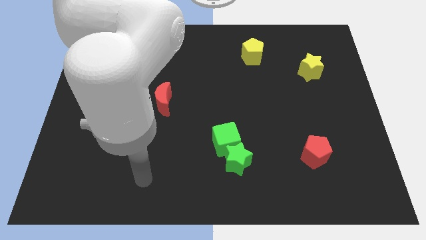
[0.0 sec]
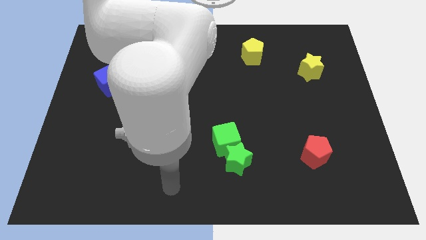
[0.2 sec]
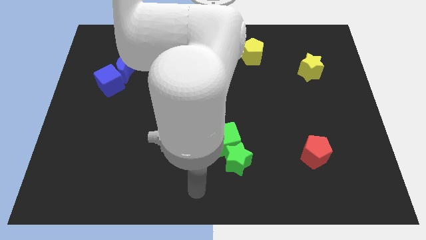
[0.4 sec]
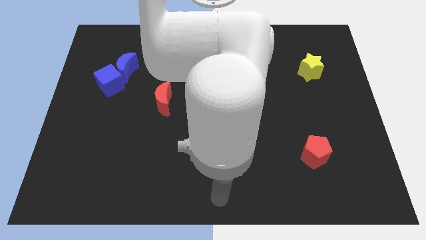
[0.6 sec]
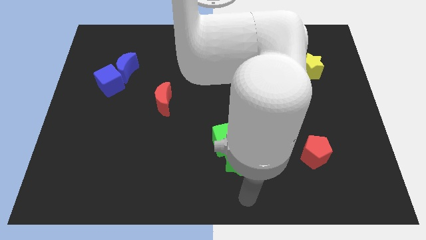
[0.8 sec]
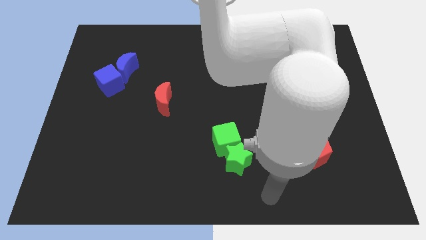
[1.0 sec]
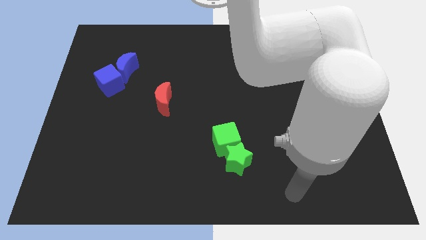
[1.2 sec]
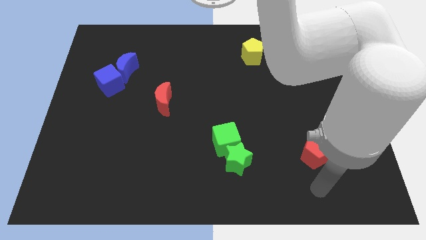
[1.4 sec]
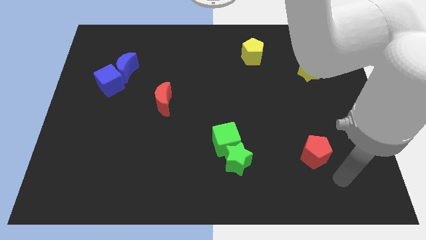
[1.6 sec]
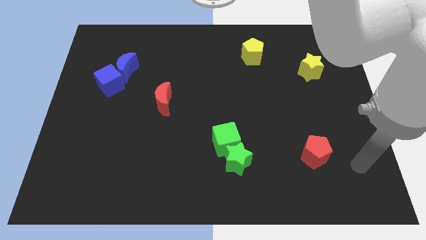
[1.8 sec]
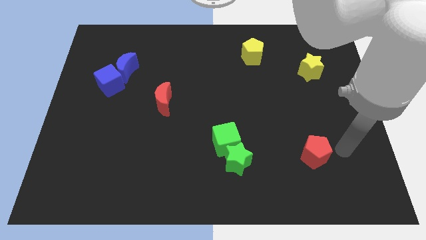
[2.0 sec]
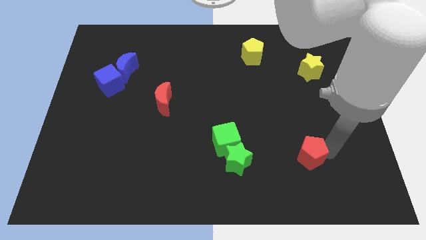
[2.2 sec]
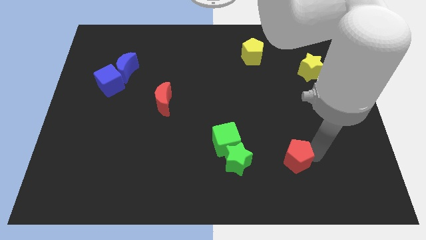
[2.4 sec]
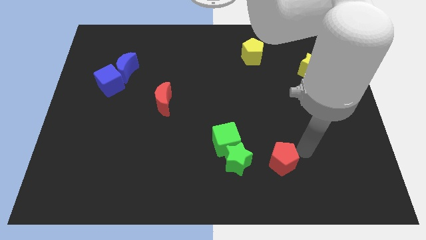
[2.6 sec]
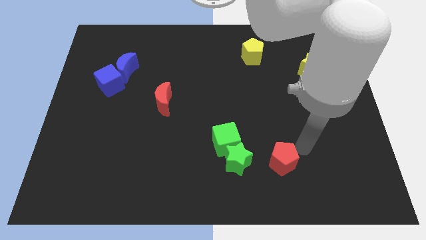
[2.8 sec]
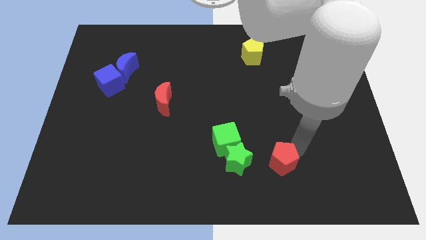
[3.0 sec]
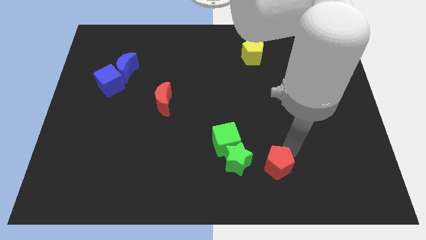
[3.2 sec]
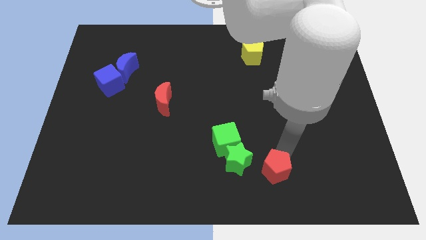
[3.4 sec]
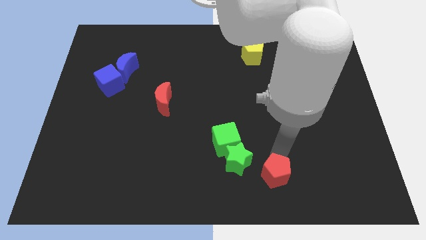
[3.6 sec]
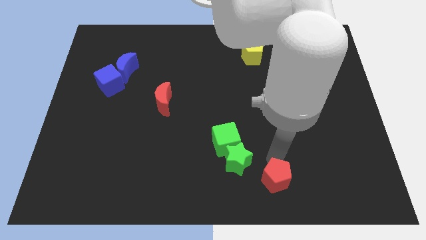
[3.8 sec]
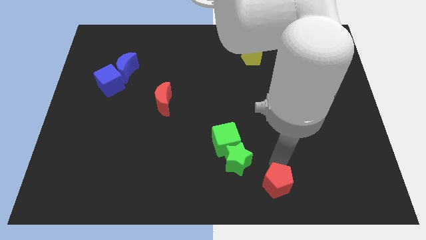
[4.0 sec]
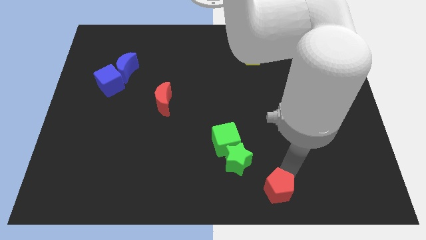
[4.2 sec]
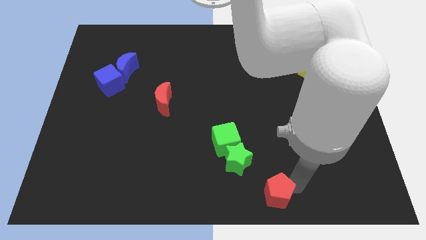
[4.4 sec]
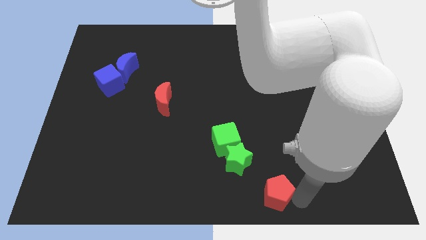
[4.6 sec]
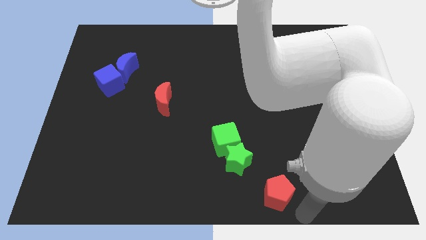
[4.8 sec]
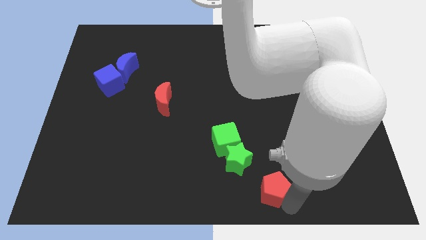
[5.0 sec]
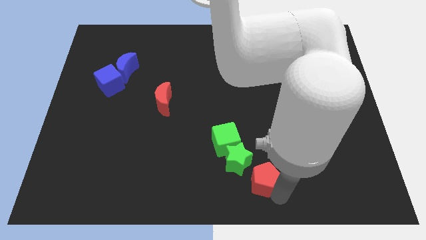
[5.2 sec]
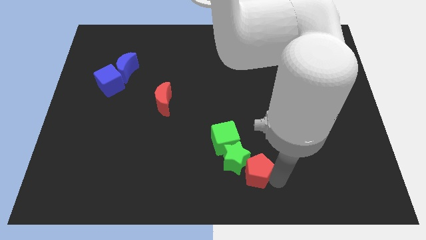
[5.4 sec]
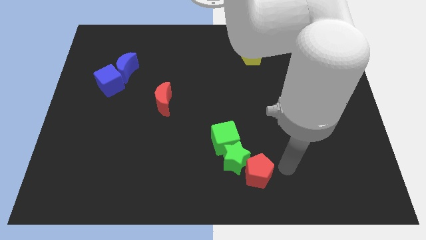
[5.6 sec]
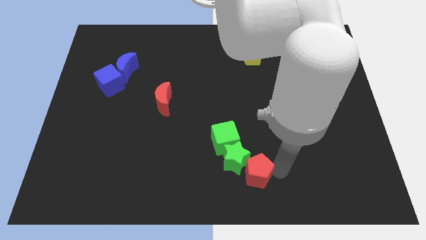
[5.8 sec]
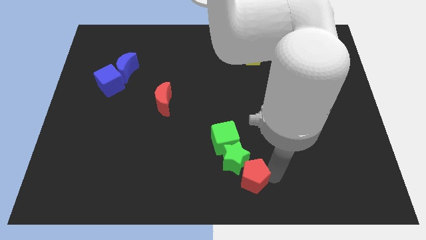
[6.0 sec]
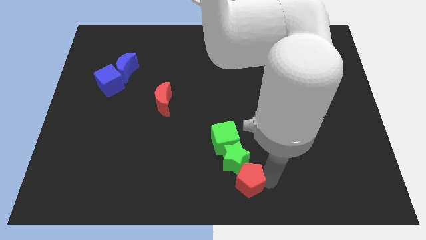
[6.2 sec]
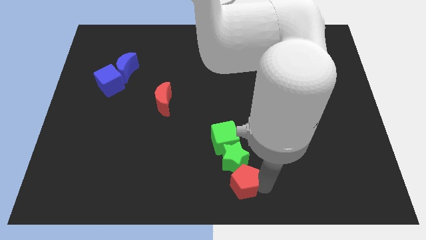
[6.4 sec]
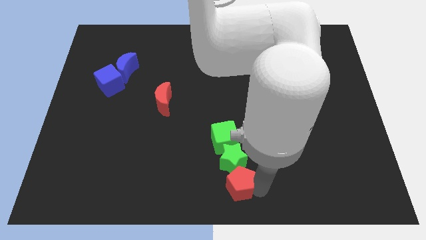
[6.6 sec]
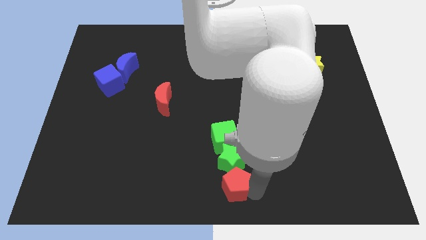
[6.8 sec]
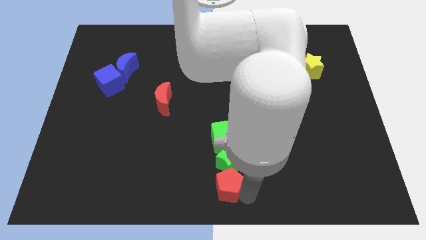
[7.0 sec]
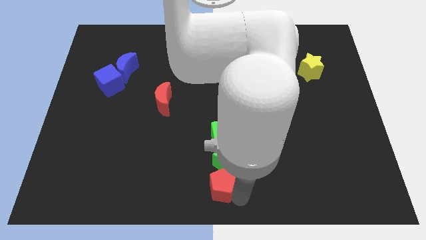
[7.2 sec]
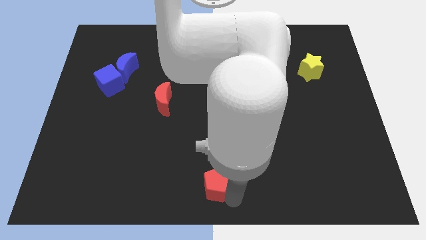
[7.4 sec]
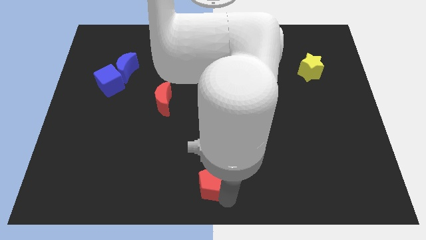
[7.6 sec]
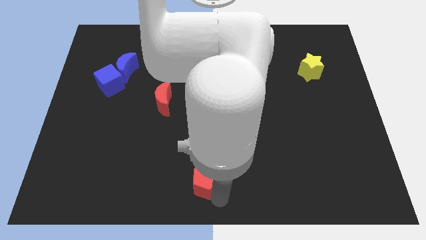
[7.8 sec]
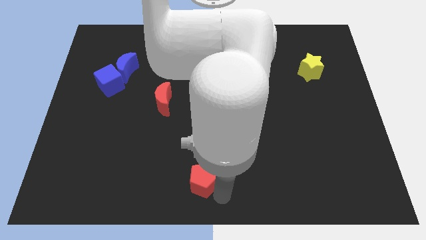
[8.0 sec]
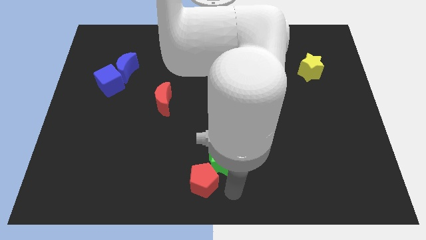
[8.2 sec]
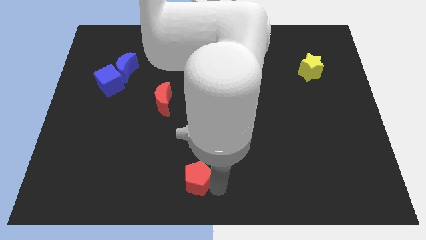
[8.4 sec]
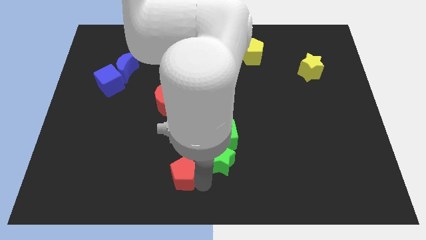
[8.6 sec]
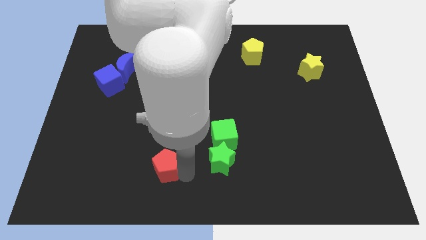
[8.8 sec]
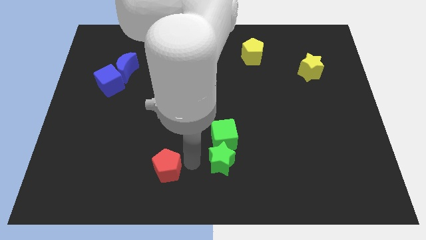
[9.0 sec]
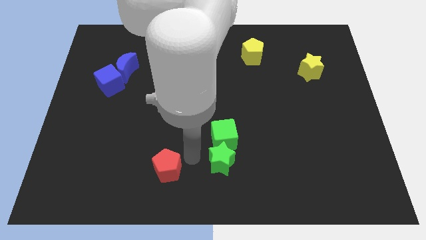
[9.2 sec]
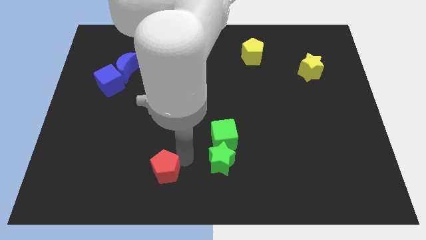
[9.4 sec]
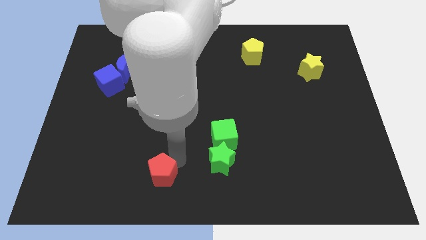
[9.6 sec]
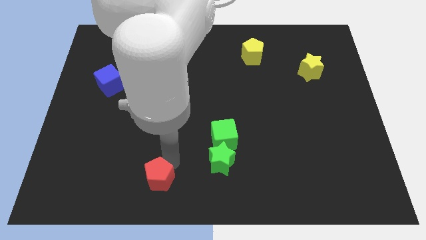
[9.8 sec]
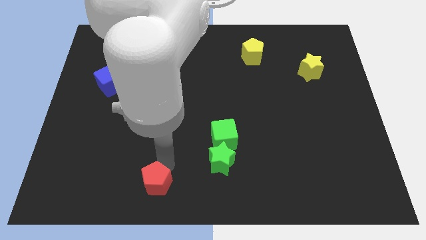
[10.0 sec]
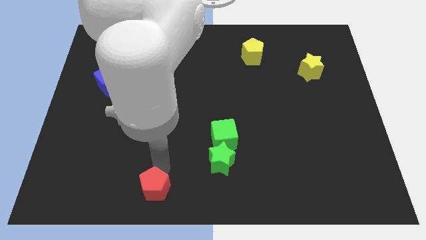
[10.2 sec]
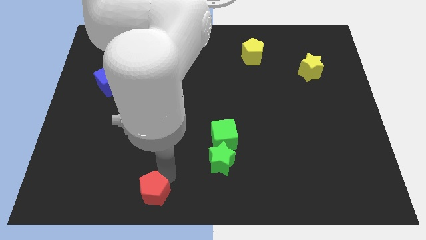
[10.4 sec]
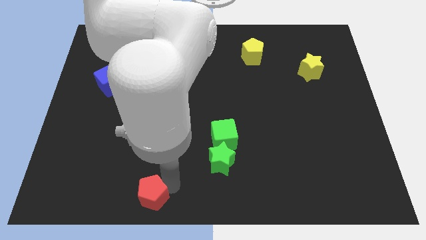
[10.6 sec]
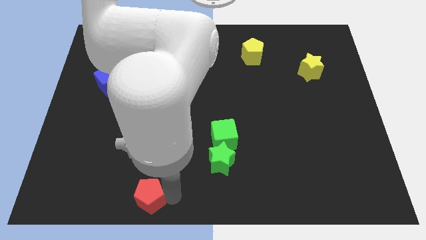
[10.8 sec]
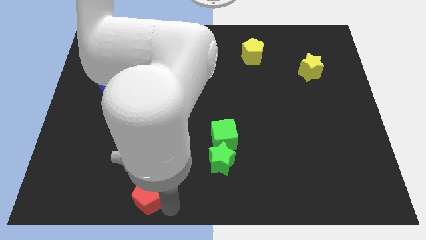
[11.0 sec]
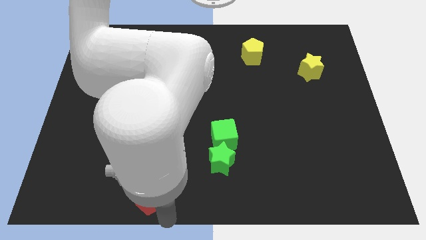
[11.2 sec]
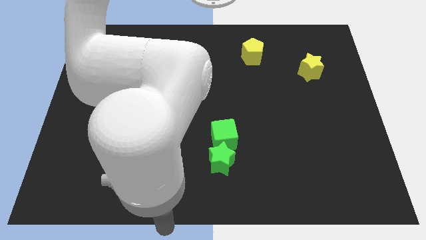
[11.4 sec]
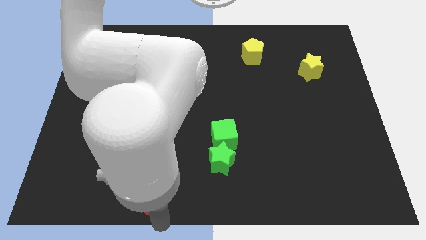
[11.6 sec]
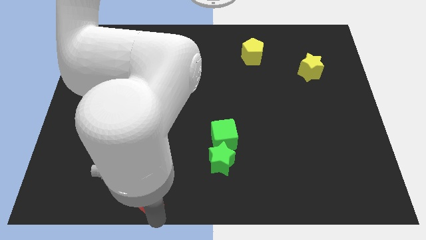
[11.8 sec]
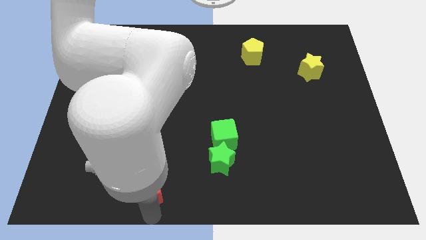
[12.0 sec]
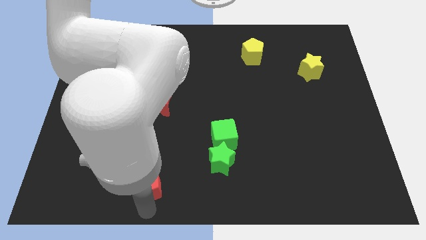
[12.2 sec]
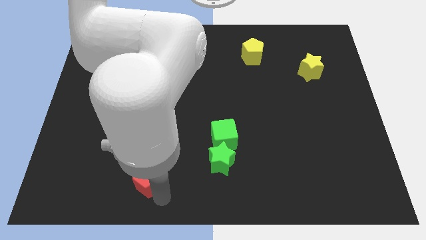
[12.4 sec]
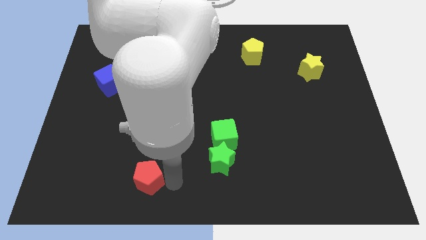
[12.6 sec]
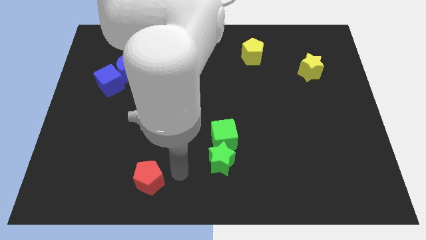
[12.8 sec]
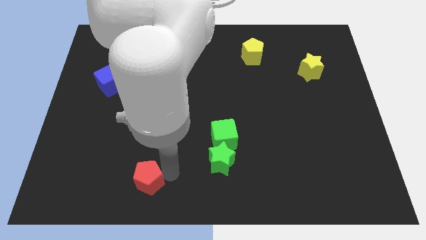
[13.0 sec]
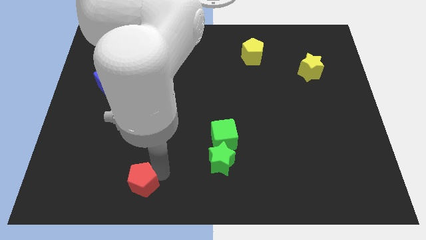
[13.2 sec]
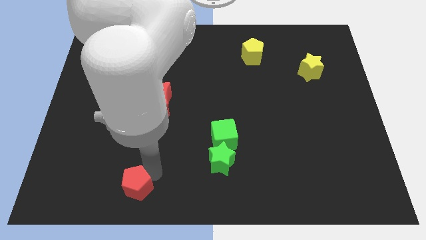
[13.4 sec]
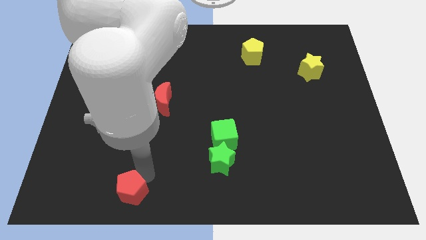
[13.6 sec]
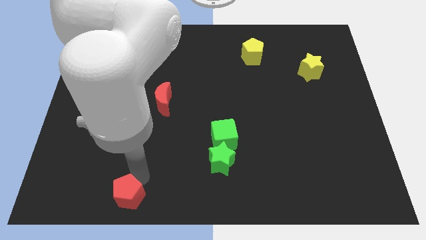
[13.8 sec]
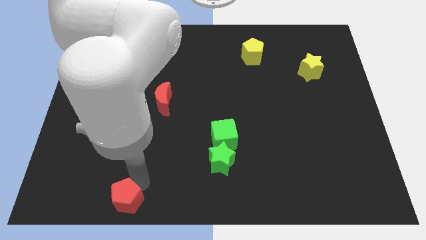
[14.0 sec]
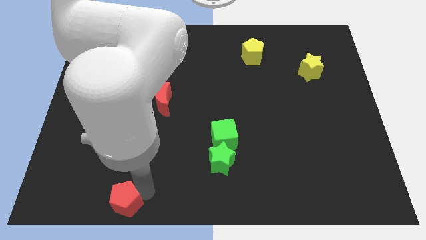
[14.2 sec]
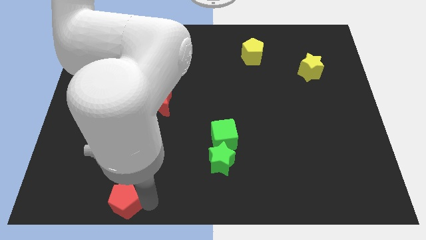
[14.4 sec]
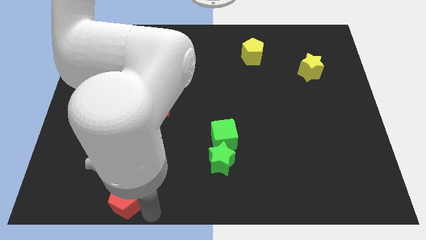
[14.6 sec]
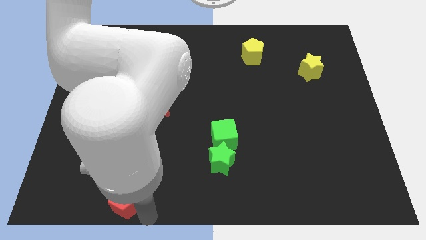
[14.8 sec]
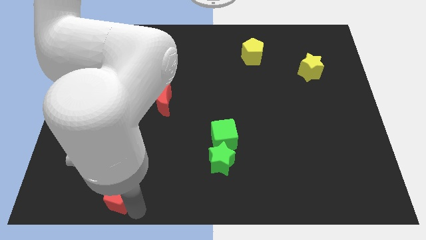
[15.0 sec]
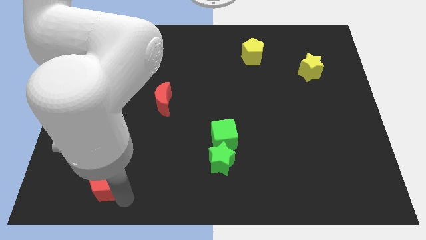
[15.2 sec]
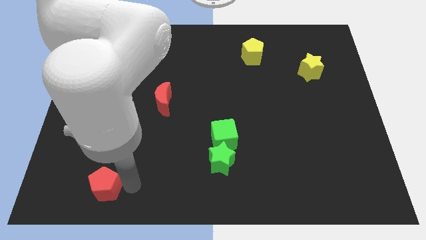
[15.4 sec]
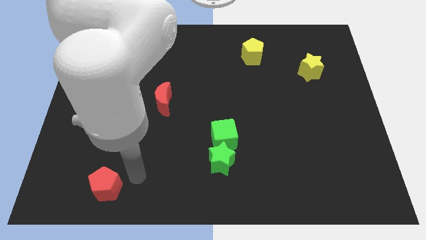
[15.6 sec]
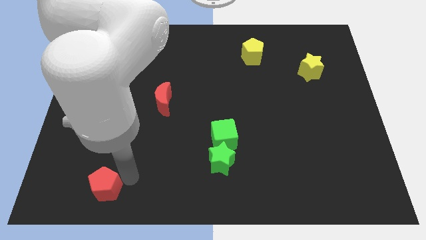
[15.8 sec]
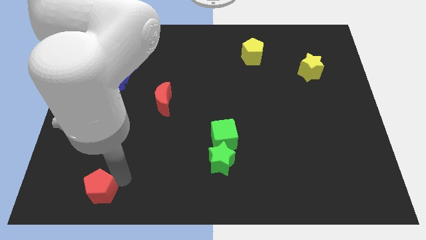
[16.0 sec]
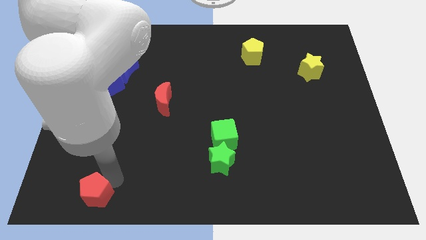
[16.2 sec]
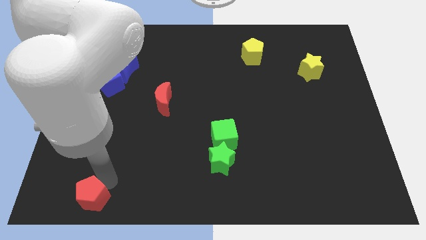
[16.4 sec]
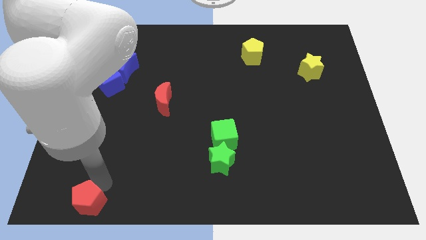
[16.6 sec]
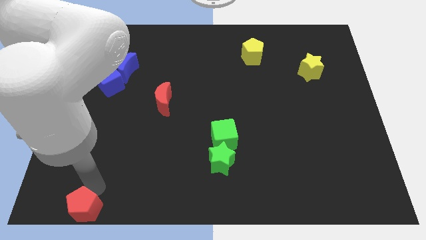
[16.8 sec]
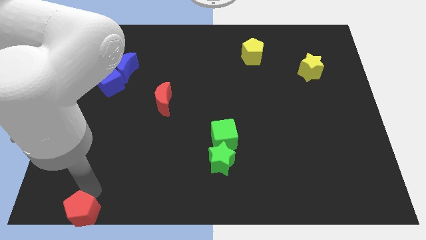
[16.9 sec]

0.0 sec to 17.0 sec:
slide the red pentagon to the bottom left of the board
